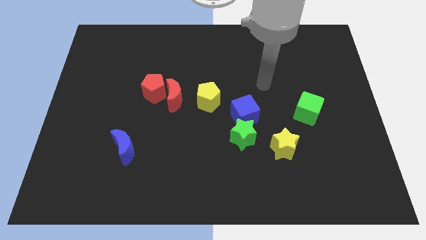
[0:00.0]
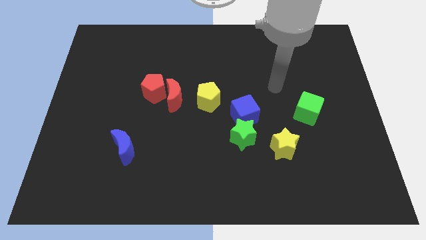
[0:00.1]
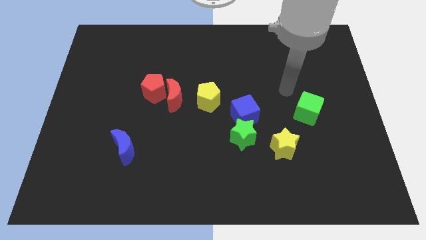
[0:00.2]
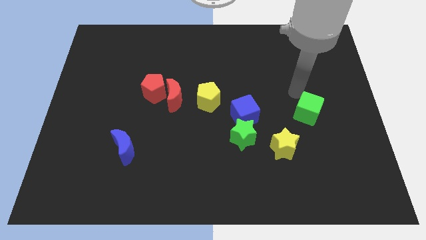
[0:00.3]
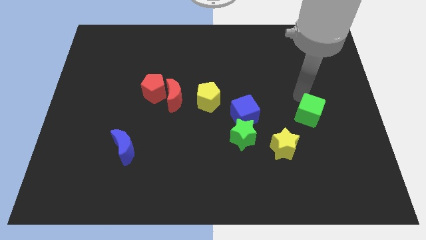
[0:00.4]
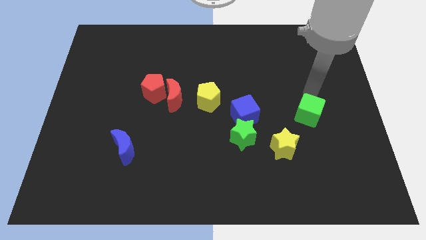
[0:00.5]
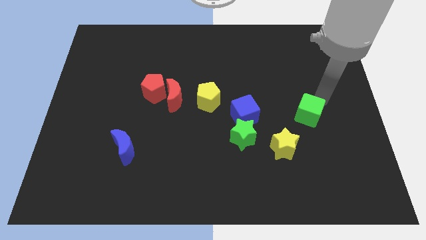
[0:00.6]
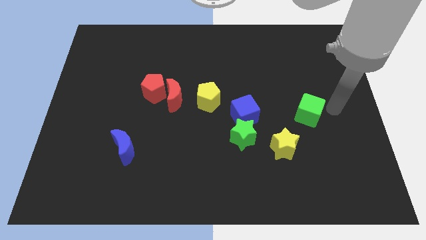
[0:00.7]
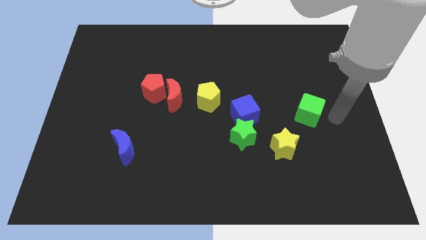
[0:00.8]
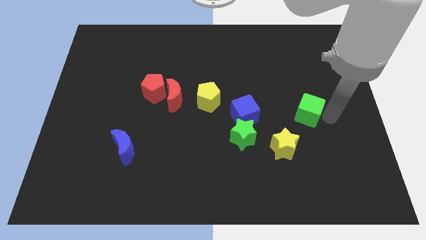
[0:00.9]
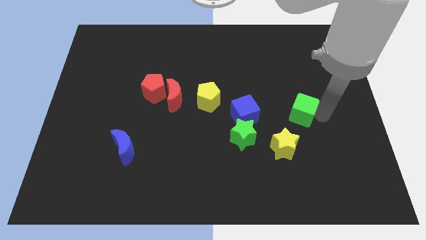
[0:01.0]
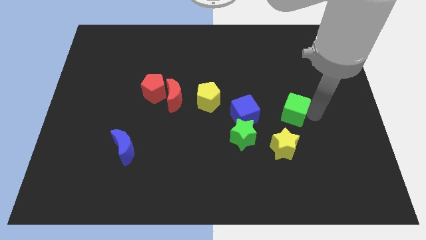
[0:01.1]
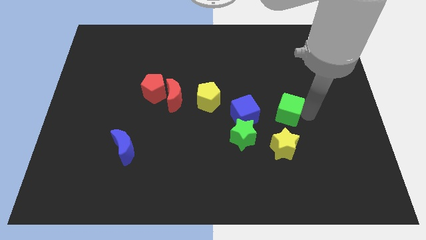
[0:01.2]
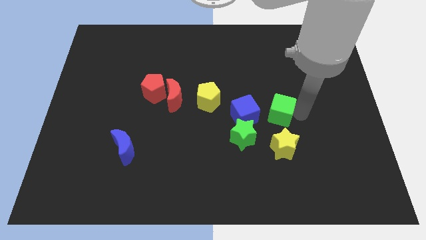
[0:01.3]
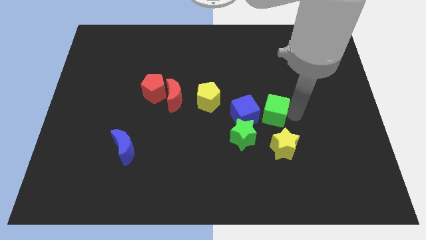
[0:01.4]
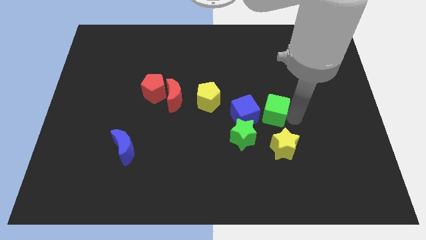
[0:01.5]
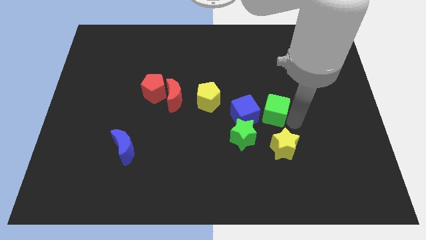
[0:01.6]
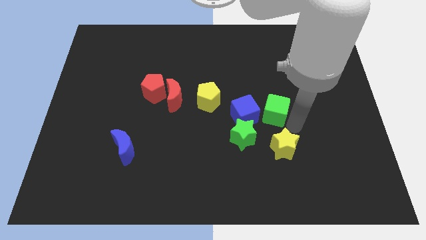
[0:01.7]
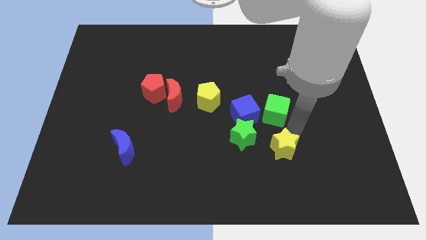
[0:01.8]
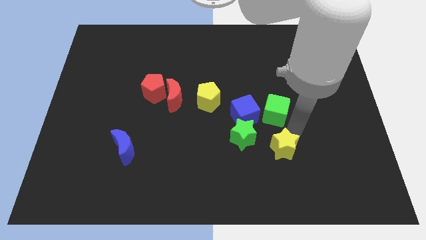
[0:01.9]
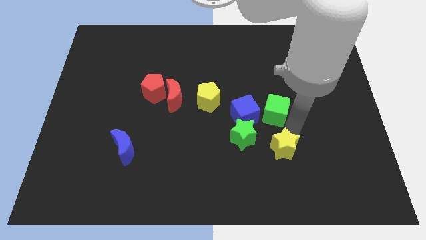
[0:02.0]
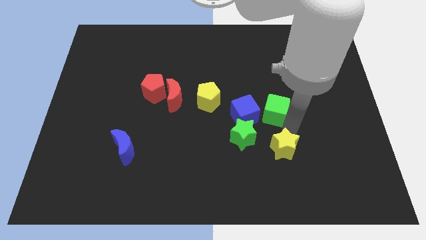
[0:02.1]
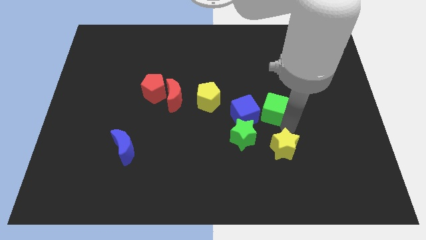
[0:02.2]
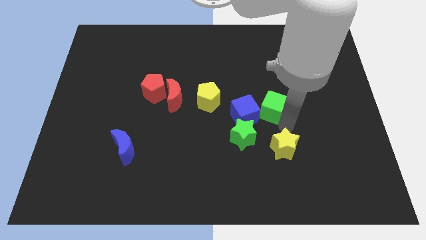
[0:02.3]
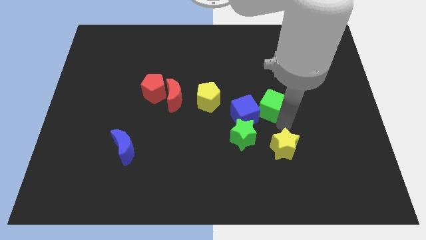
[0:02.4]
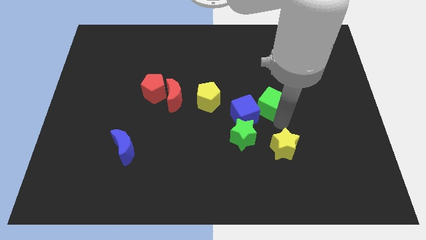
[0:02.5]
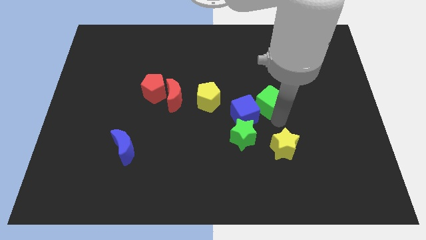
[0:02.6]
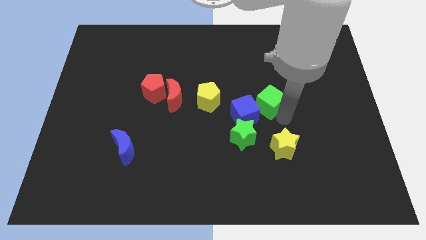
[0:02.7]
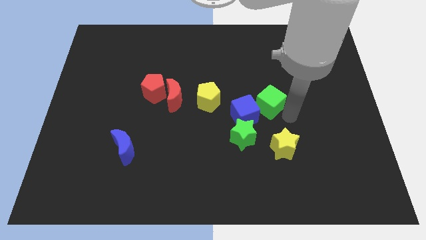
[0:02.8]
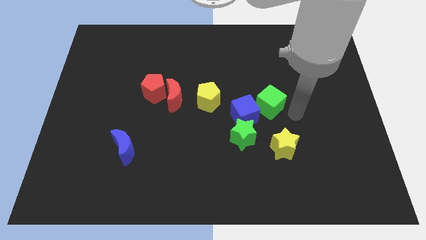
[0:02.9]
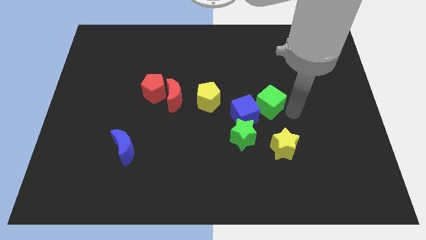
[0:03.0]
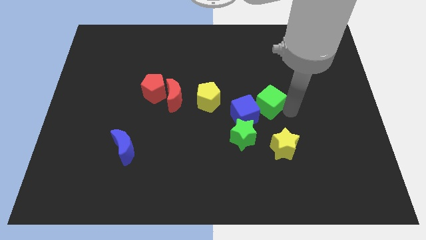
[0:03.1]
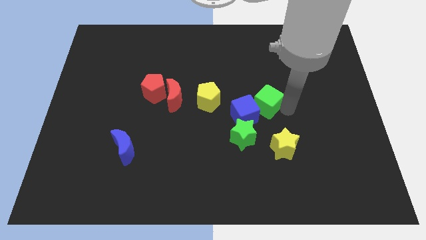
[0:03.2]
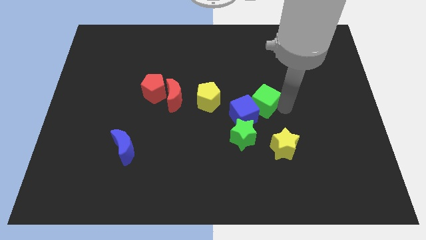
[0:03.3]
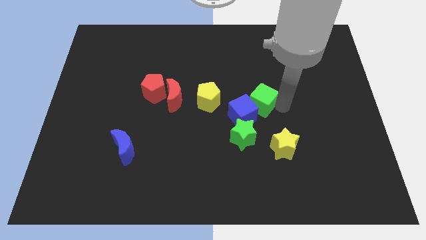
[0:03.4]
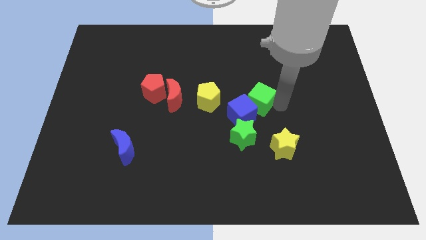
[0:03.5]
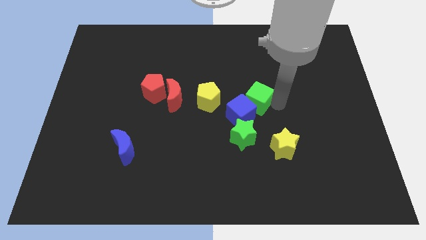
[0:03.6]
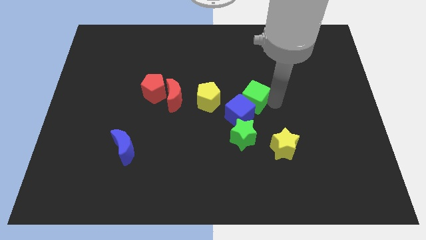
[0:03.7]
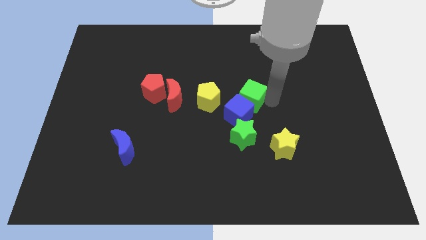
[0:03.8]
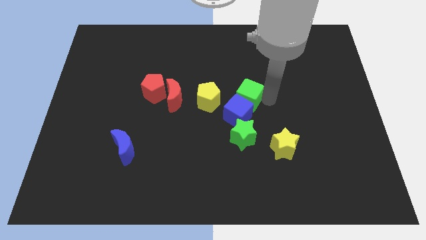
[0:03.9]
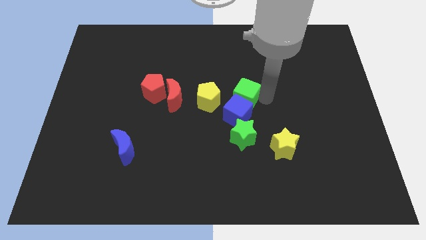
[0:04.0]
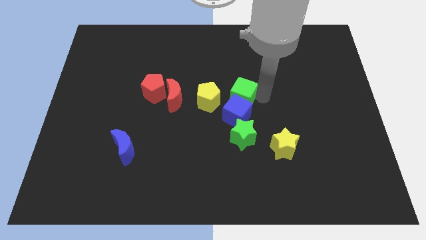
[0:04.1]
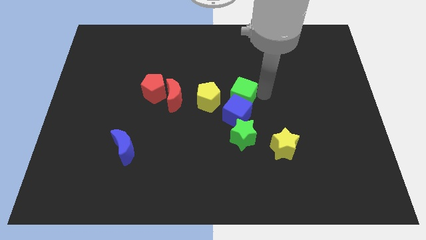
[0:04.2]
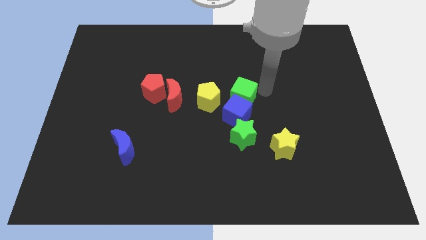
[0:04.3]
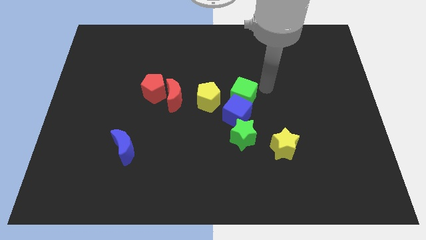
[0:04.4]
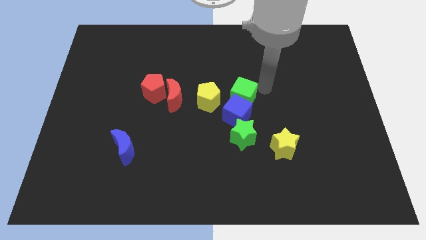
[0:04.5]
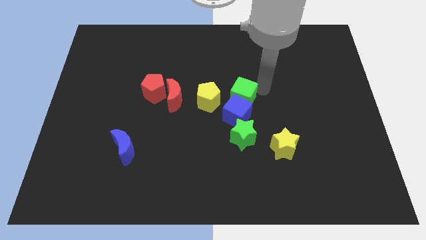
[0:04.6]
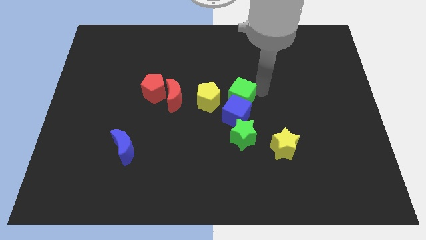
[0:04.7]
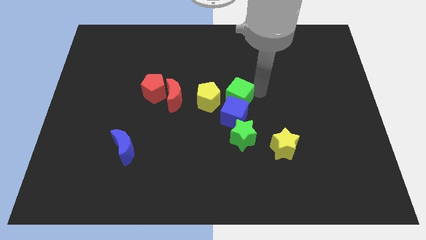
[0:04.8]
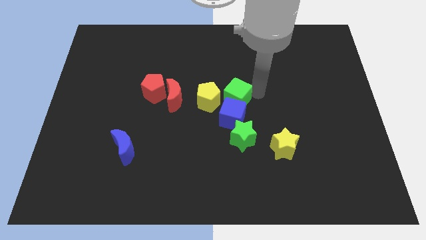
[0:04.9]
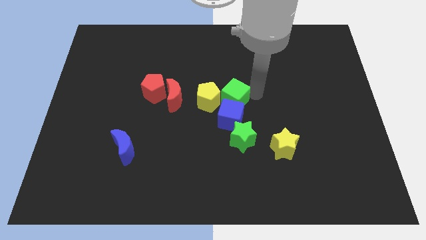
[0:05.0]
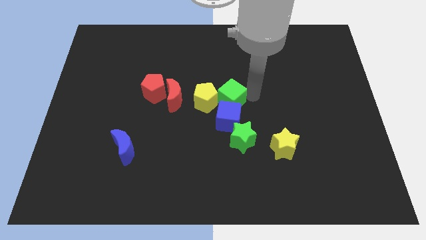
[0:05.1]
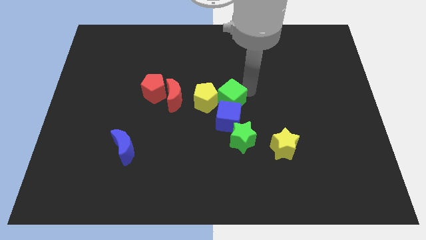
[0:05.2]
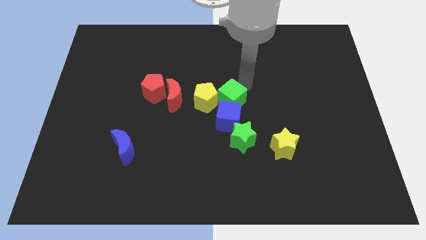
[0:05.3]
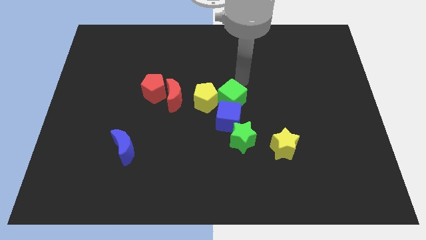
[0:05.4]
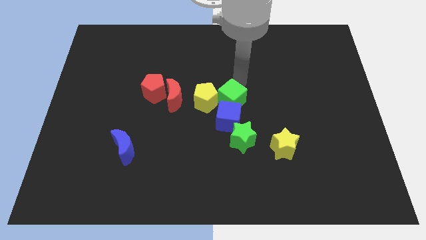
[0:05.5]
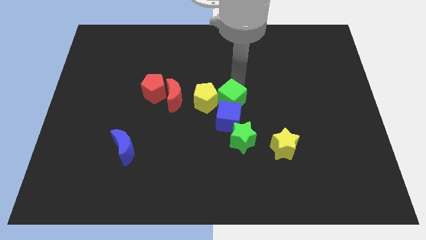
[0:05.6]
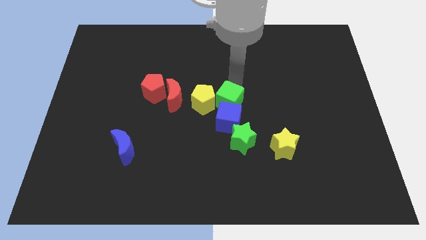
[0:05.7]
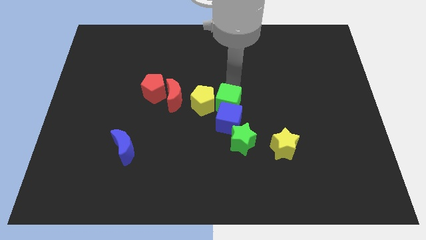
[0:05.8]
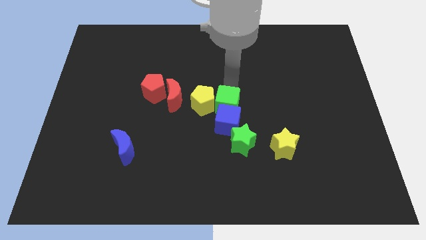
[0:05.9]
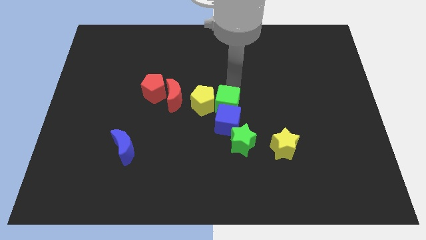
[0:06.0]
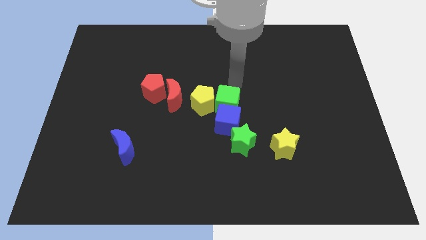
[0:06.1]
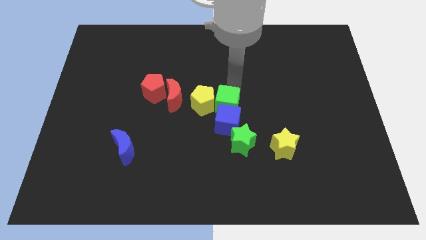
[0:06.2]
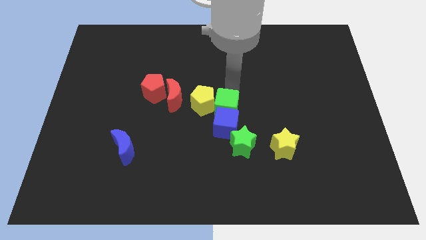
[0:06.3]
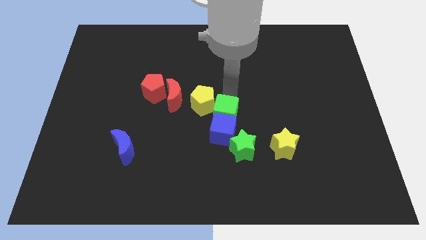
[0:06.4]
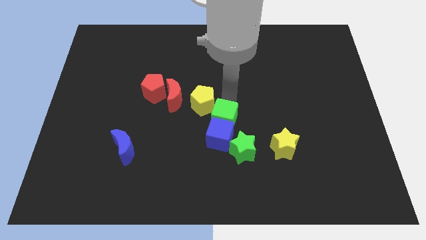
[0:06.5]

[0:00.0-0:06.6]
put the green cube below the yellow pentagon
